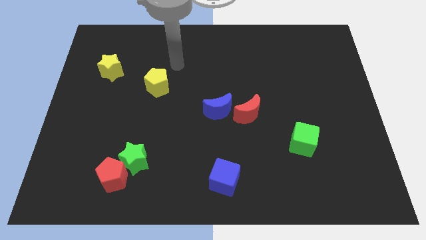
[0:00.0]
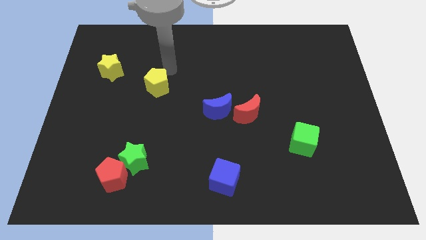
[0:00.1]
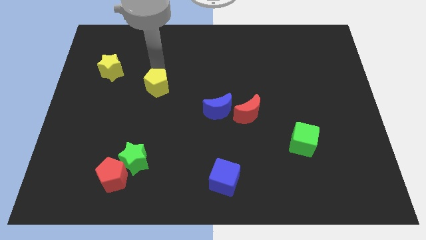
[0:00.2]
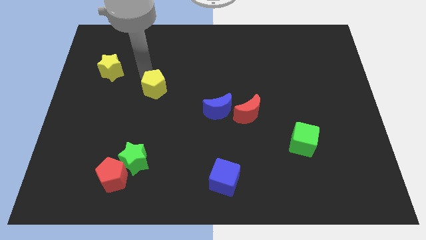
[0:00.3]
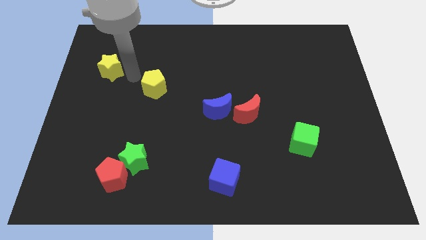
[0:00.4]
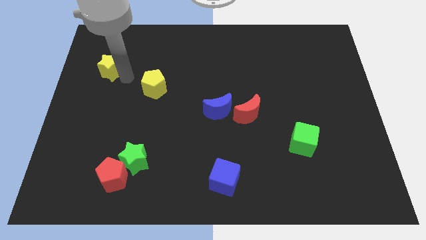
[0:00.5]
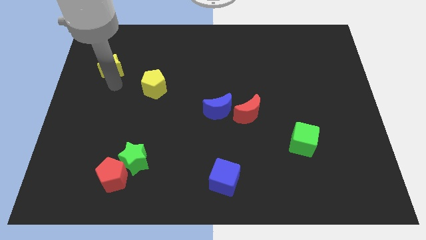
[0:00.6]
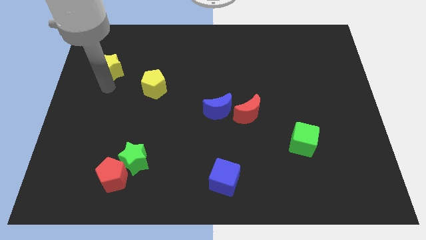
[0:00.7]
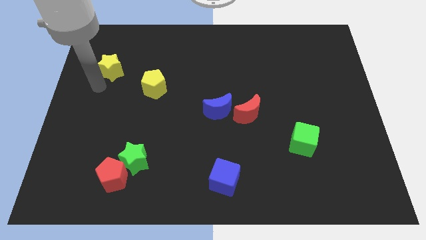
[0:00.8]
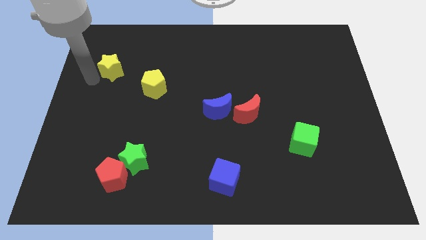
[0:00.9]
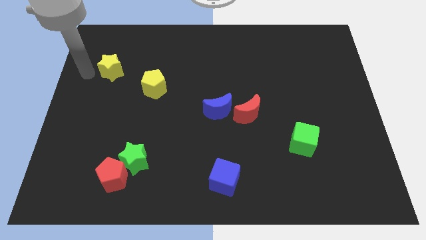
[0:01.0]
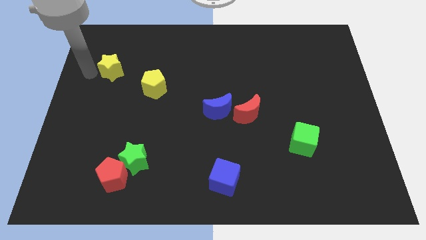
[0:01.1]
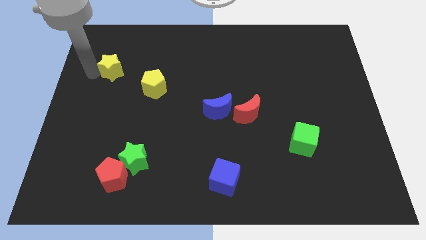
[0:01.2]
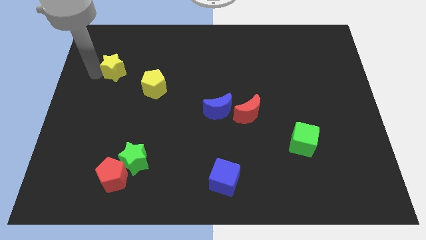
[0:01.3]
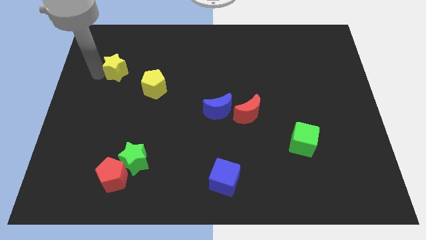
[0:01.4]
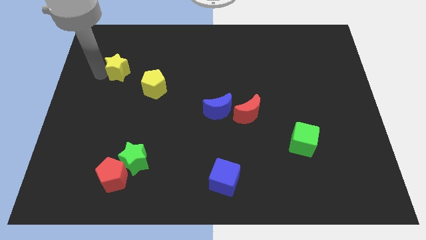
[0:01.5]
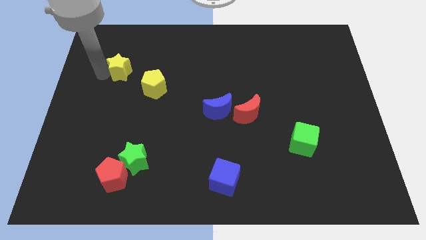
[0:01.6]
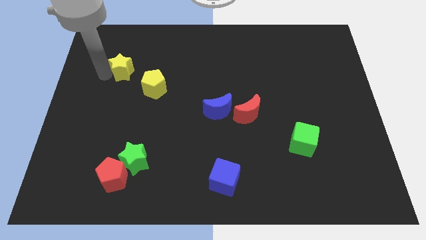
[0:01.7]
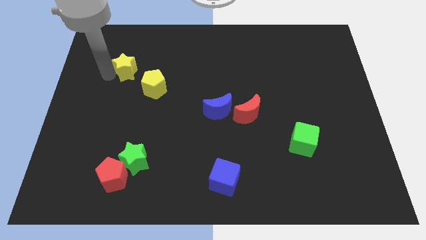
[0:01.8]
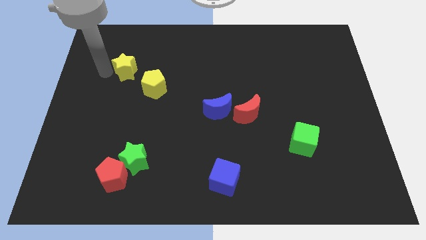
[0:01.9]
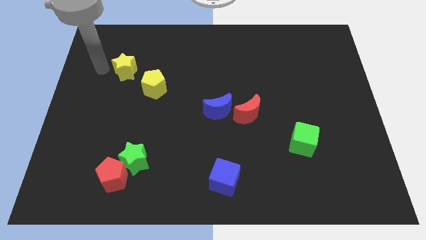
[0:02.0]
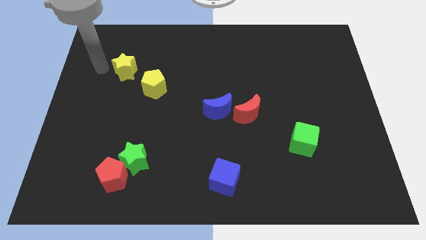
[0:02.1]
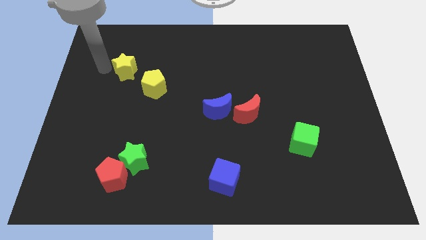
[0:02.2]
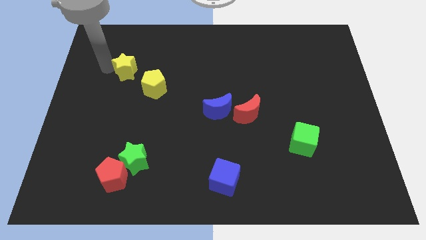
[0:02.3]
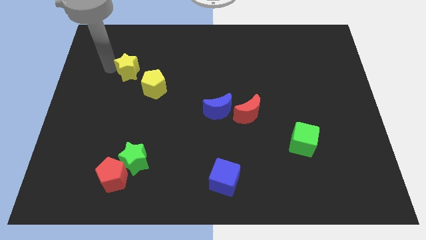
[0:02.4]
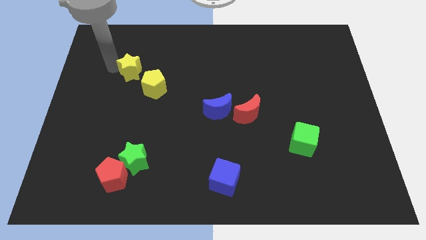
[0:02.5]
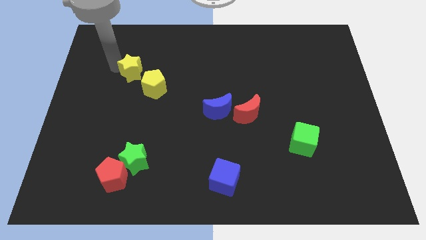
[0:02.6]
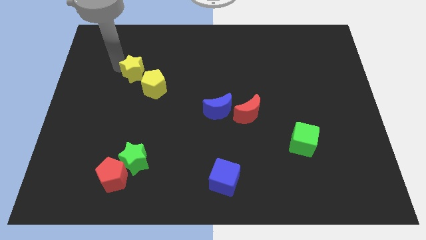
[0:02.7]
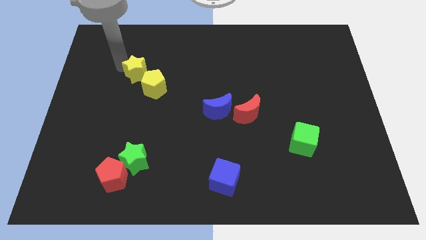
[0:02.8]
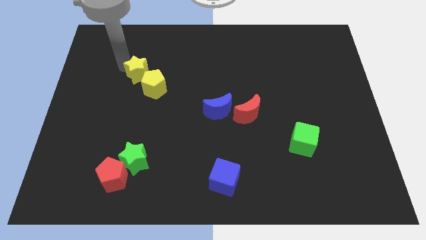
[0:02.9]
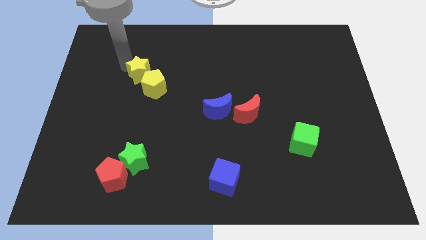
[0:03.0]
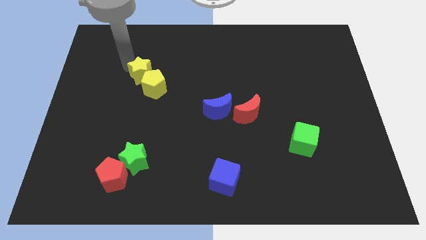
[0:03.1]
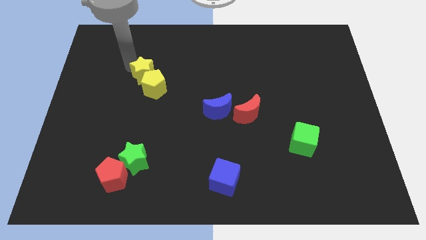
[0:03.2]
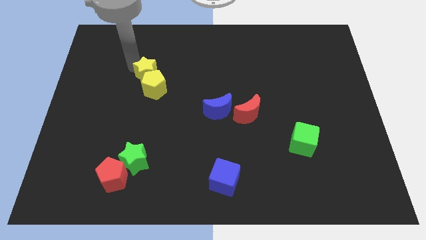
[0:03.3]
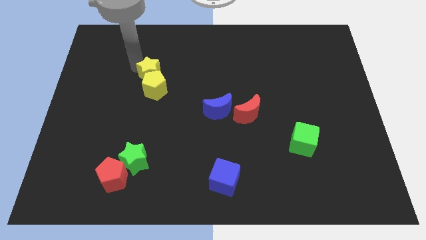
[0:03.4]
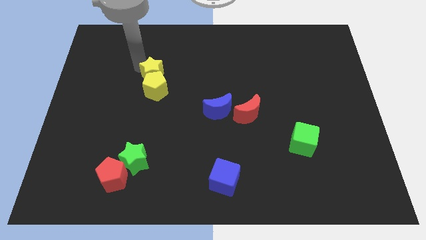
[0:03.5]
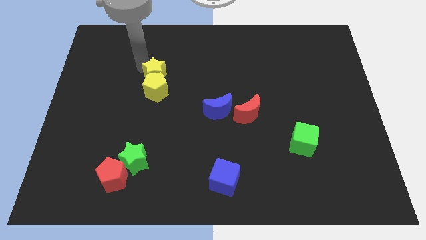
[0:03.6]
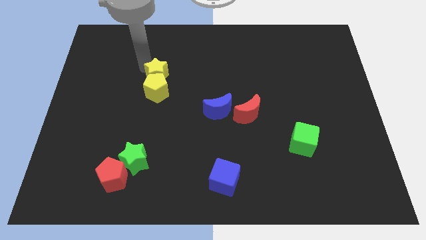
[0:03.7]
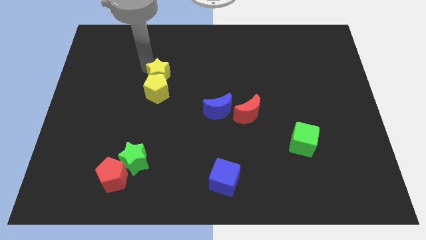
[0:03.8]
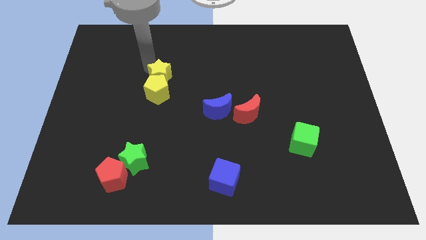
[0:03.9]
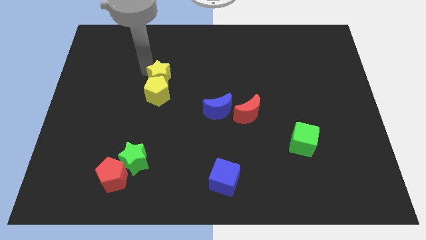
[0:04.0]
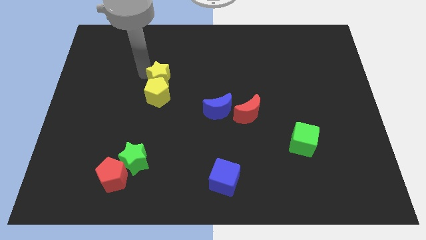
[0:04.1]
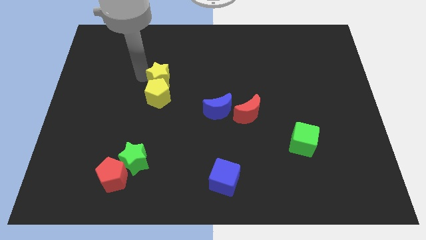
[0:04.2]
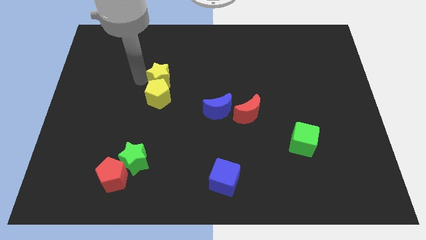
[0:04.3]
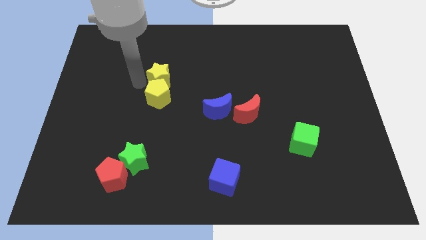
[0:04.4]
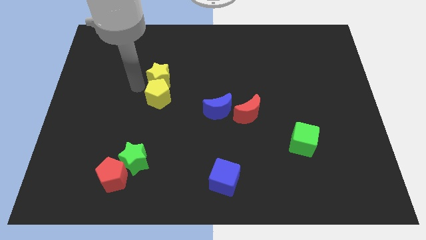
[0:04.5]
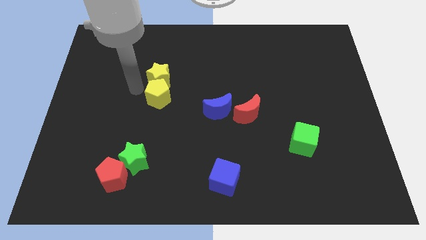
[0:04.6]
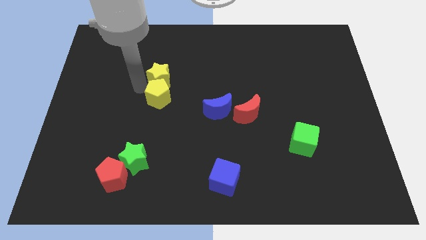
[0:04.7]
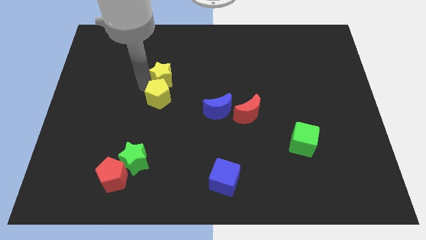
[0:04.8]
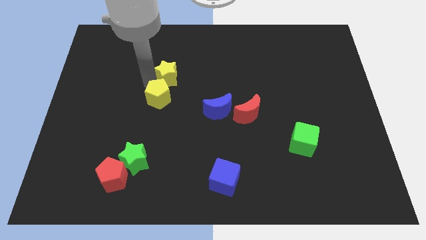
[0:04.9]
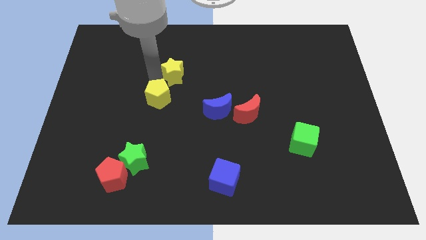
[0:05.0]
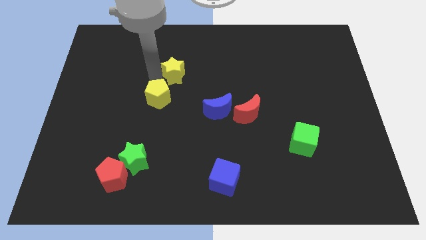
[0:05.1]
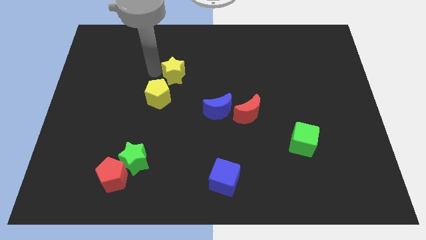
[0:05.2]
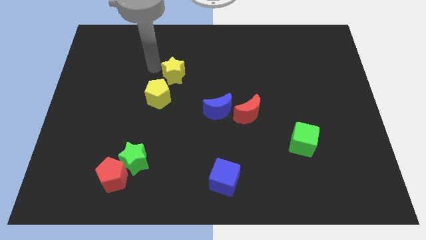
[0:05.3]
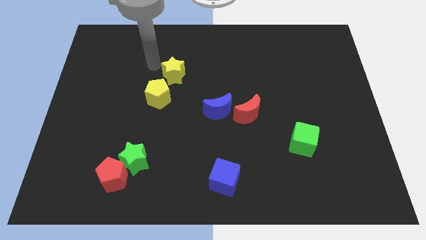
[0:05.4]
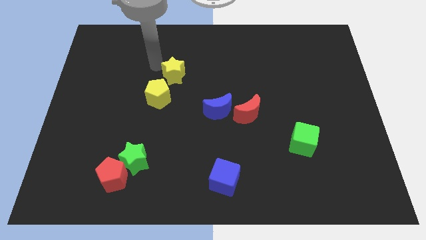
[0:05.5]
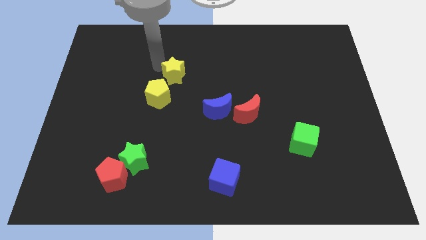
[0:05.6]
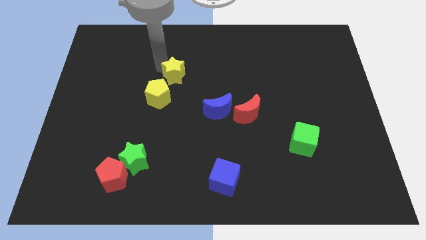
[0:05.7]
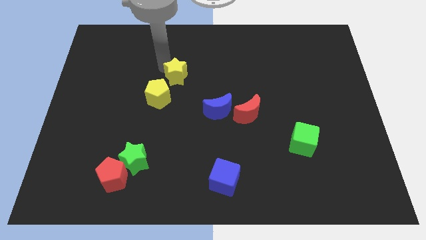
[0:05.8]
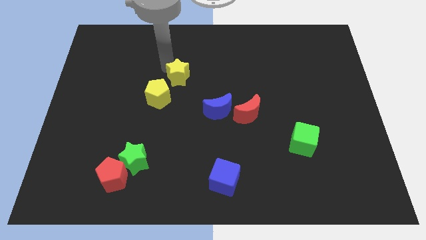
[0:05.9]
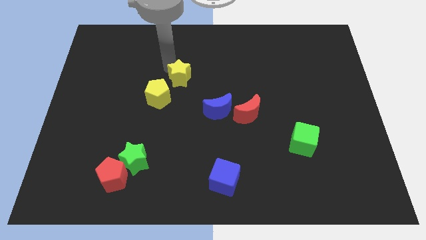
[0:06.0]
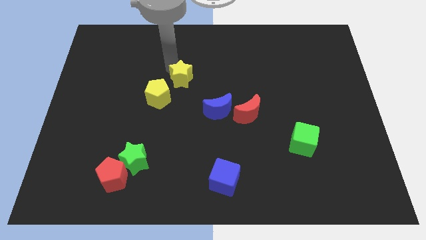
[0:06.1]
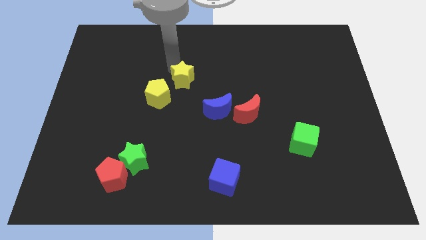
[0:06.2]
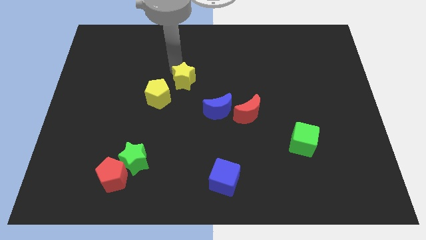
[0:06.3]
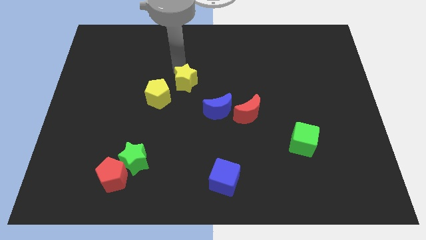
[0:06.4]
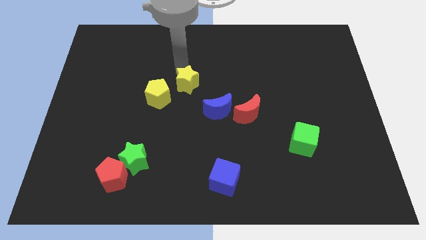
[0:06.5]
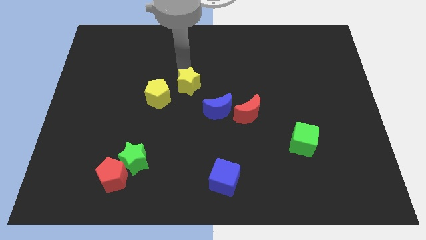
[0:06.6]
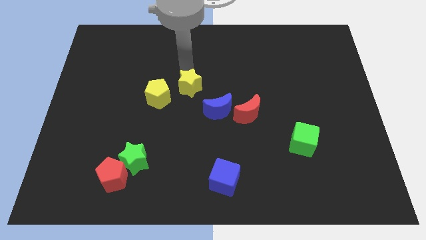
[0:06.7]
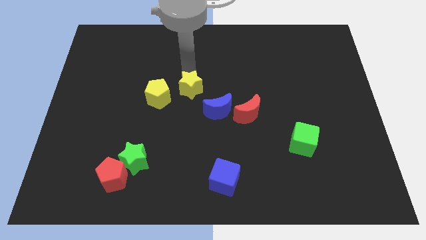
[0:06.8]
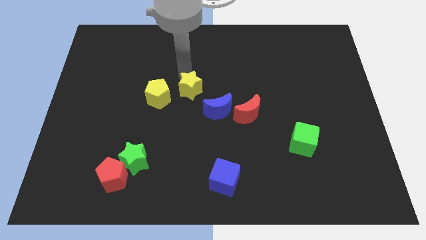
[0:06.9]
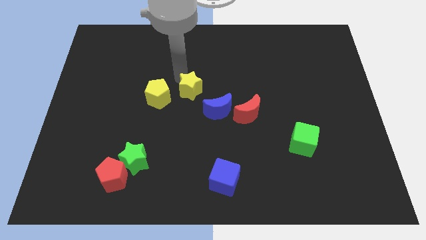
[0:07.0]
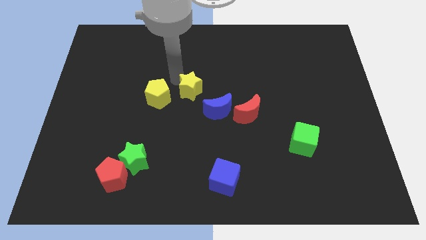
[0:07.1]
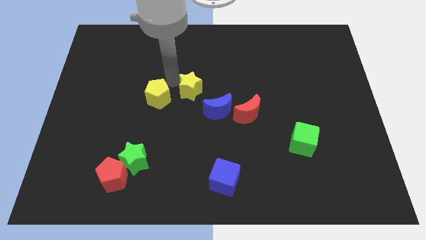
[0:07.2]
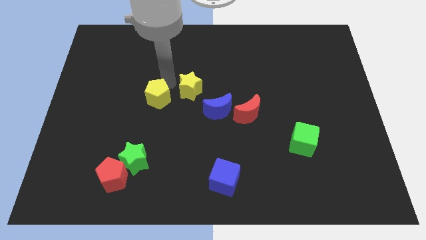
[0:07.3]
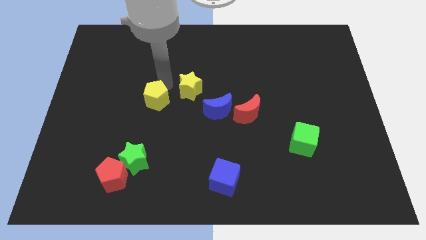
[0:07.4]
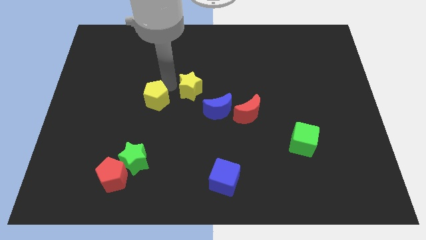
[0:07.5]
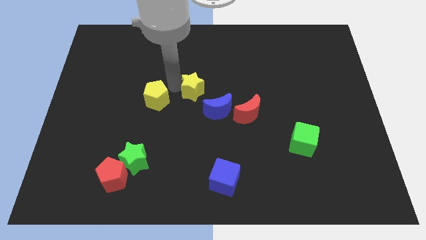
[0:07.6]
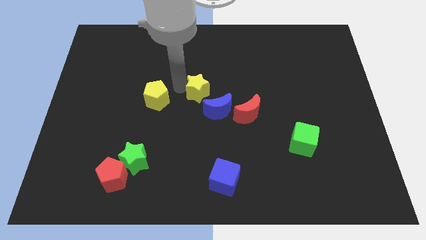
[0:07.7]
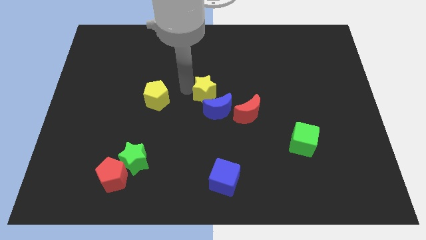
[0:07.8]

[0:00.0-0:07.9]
put the yellow star to the top left of the red moon
